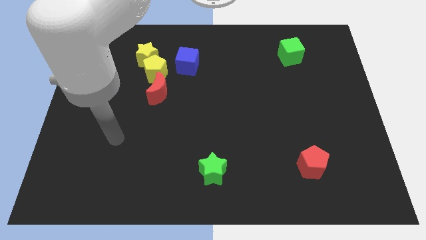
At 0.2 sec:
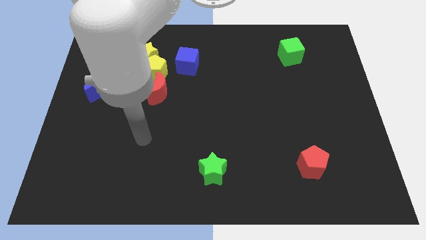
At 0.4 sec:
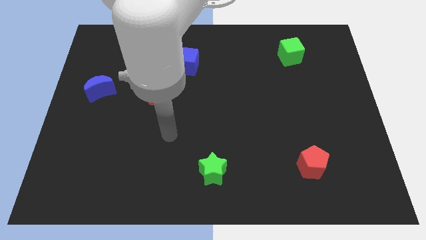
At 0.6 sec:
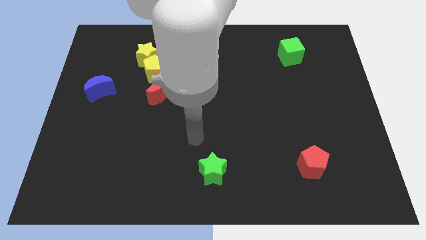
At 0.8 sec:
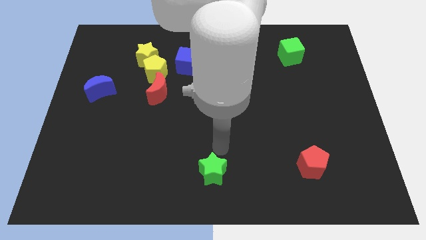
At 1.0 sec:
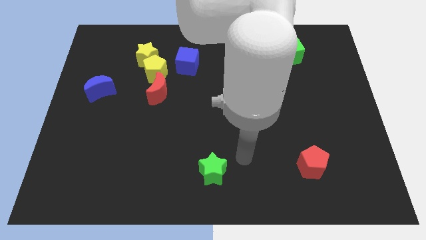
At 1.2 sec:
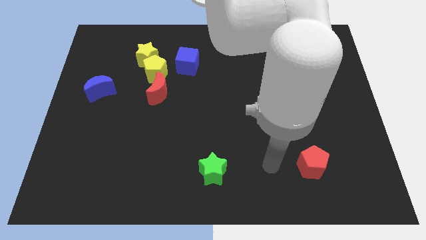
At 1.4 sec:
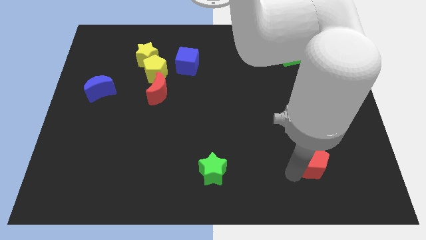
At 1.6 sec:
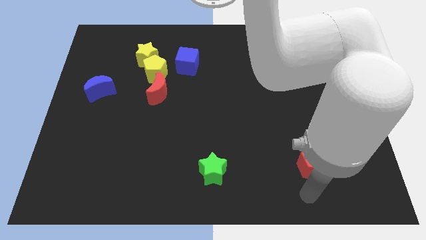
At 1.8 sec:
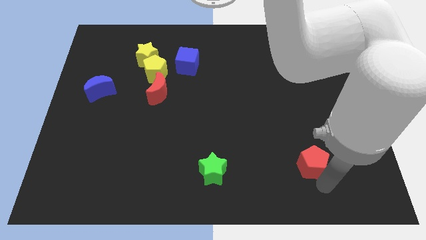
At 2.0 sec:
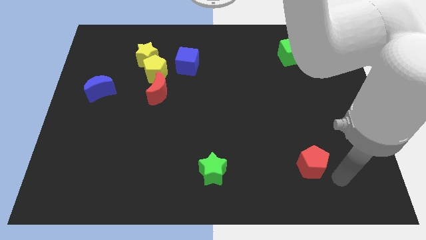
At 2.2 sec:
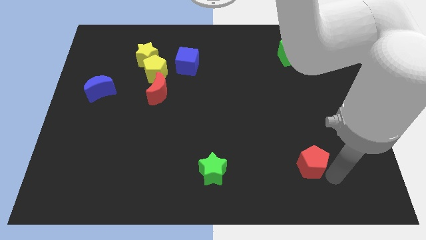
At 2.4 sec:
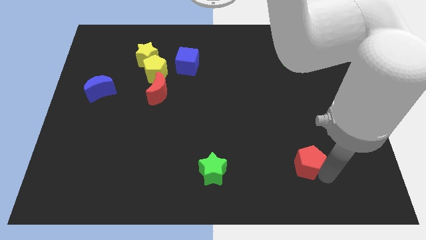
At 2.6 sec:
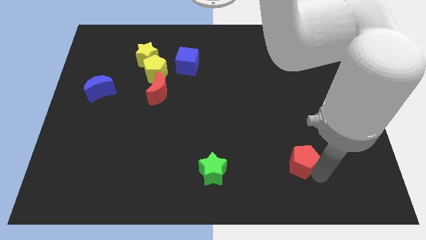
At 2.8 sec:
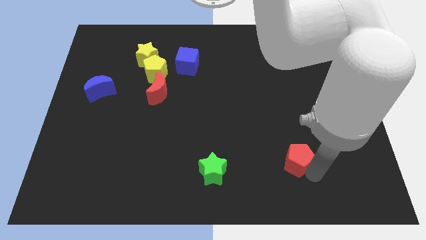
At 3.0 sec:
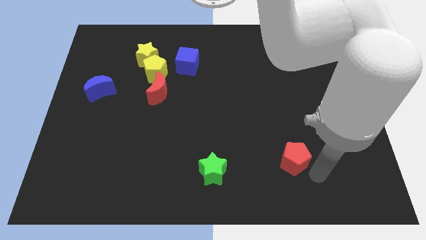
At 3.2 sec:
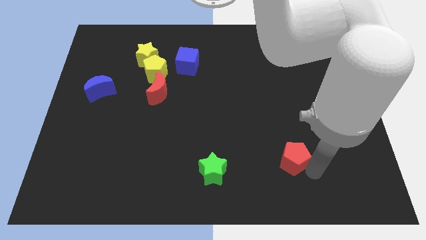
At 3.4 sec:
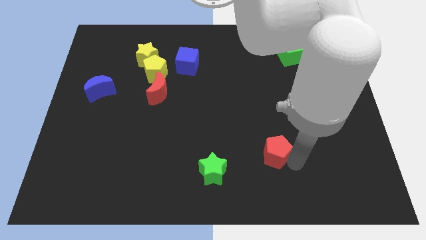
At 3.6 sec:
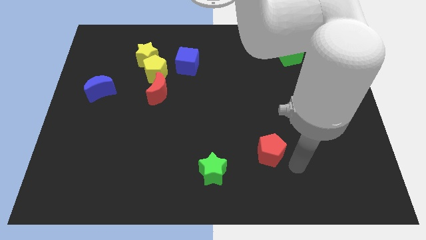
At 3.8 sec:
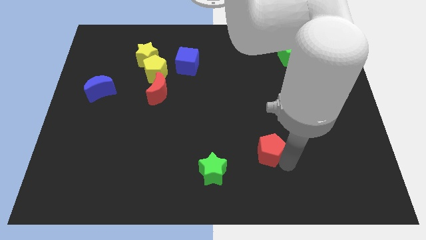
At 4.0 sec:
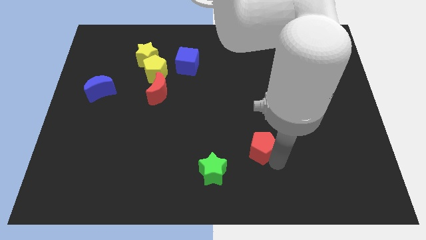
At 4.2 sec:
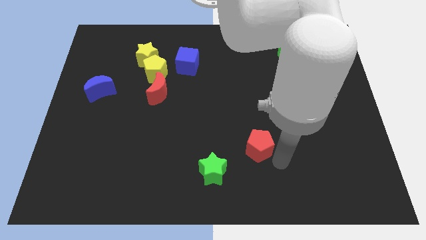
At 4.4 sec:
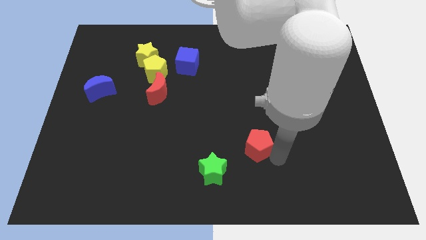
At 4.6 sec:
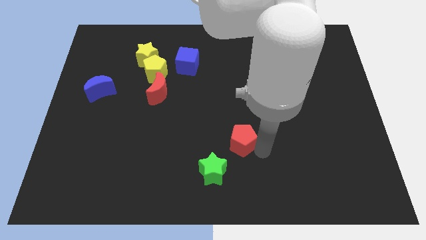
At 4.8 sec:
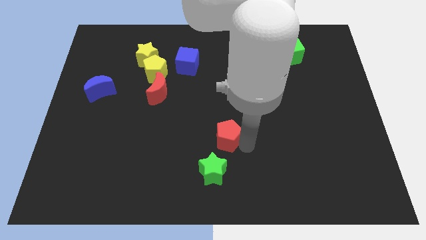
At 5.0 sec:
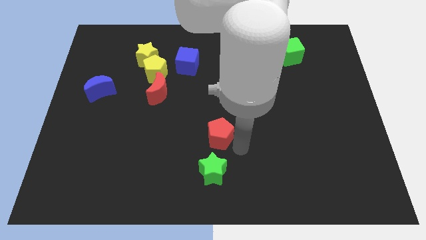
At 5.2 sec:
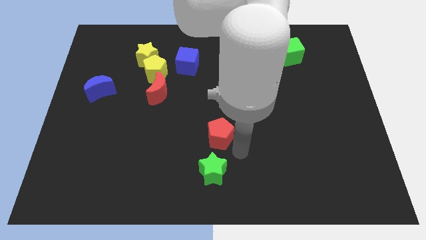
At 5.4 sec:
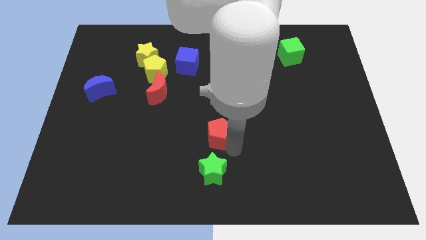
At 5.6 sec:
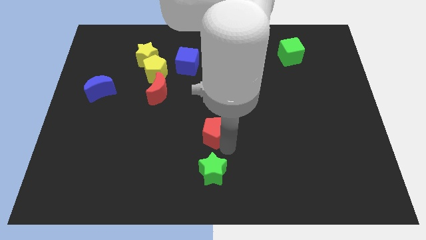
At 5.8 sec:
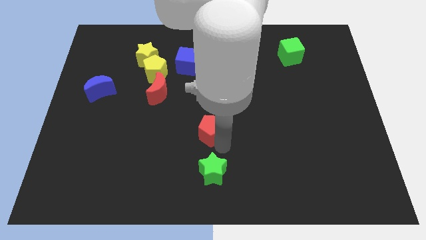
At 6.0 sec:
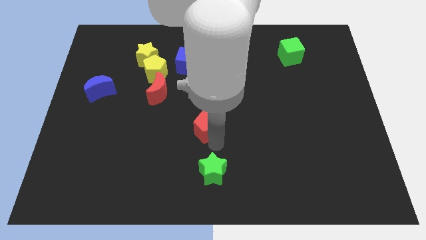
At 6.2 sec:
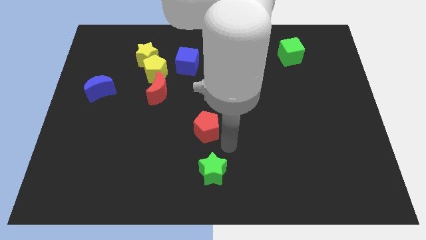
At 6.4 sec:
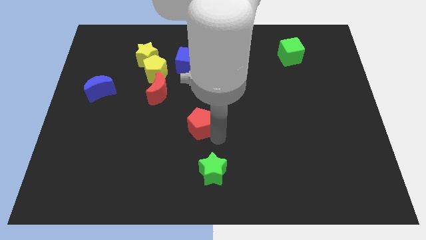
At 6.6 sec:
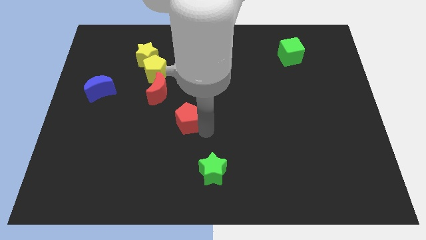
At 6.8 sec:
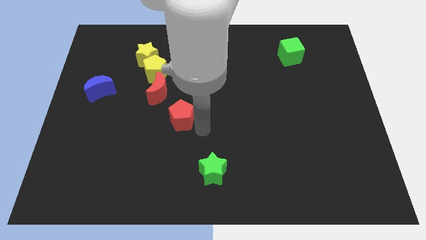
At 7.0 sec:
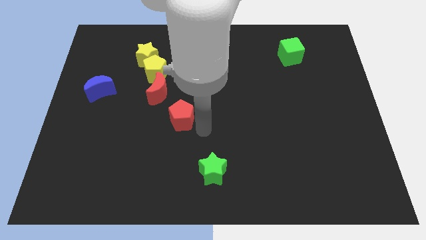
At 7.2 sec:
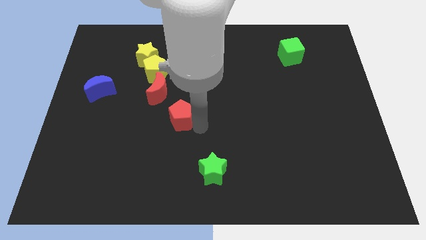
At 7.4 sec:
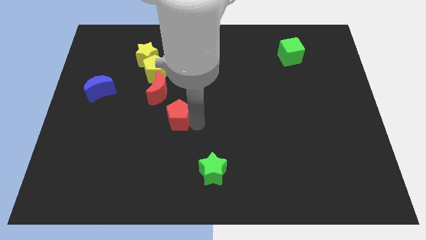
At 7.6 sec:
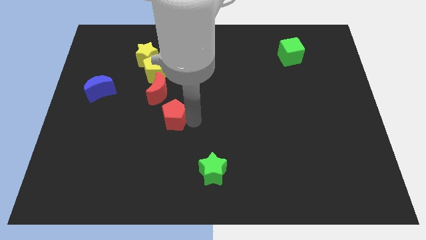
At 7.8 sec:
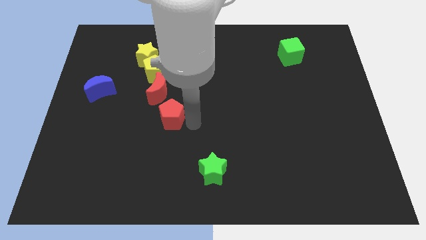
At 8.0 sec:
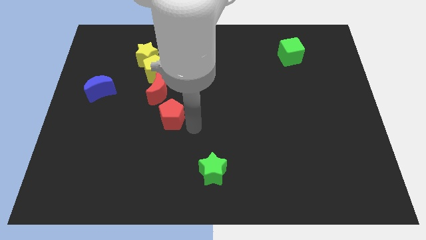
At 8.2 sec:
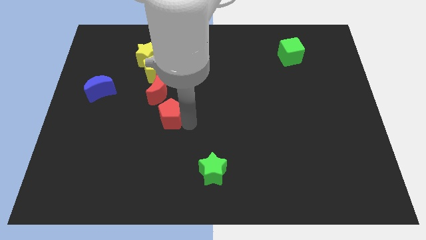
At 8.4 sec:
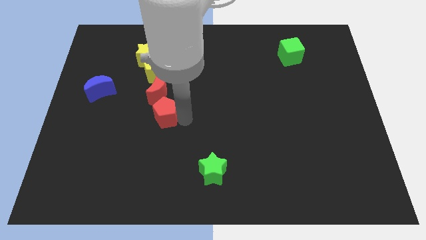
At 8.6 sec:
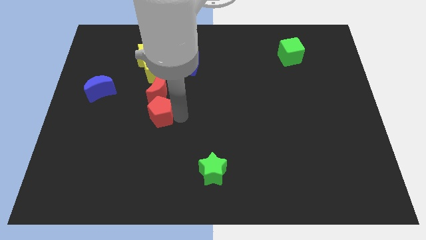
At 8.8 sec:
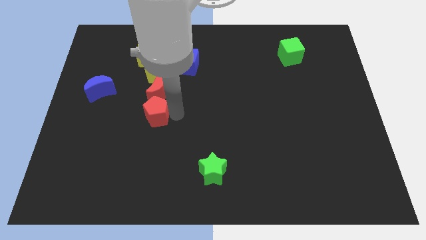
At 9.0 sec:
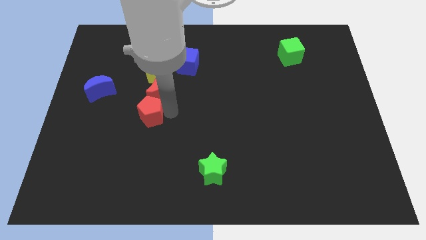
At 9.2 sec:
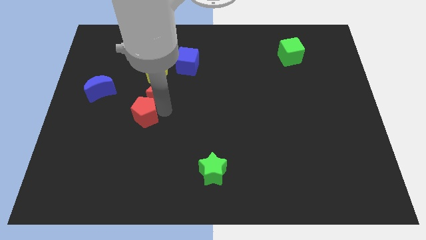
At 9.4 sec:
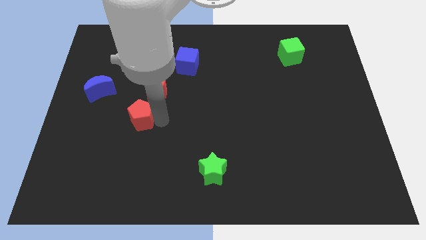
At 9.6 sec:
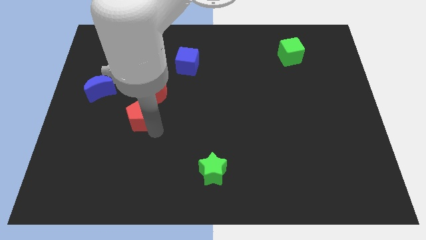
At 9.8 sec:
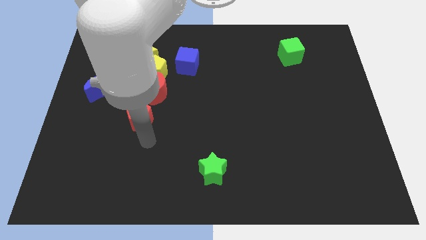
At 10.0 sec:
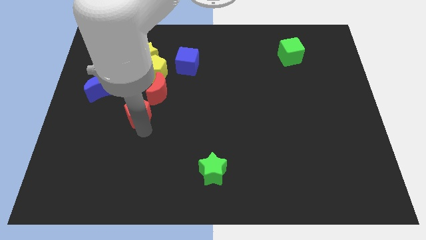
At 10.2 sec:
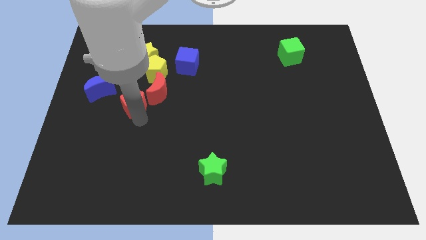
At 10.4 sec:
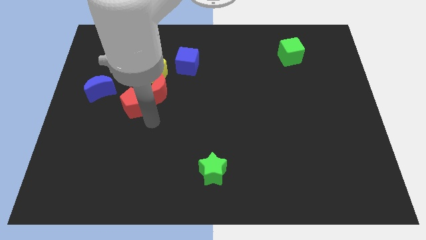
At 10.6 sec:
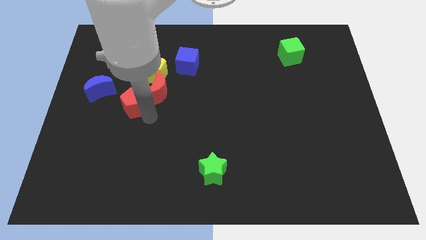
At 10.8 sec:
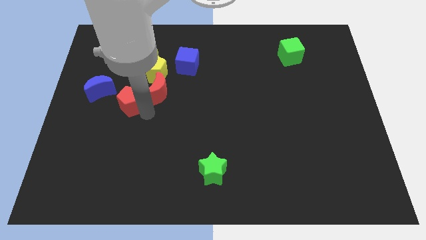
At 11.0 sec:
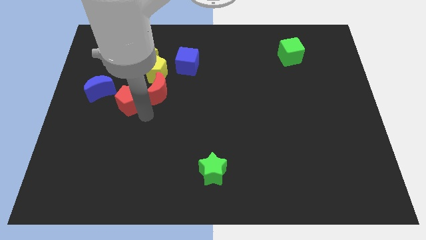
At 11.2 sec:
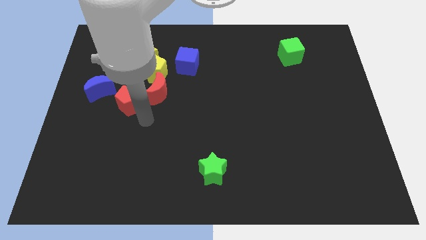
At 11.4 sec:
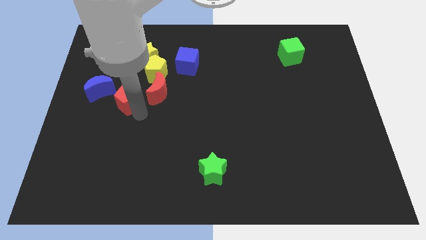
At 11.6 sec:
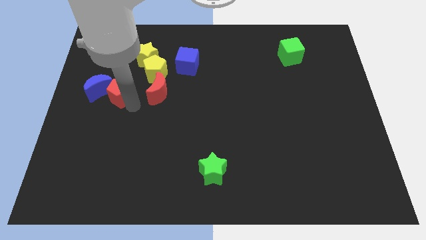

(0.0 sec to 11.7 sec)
put the red pentagon towards the blue moon

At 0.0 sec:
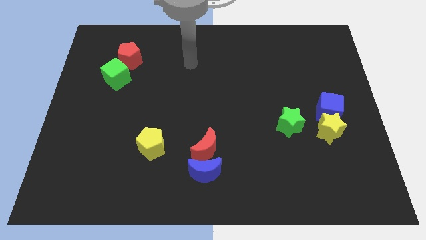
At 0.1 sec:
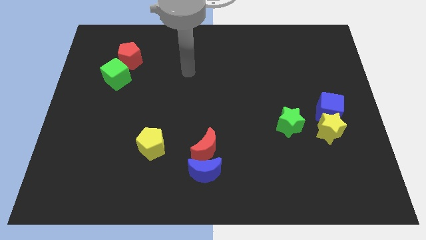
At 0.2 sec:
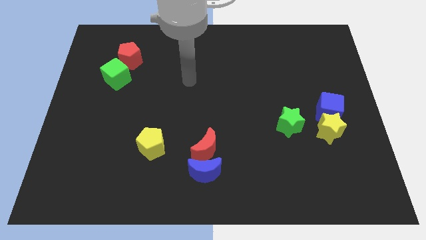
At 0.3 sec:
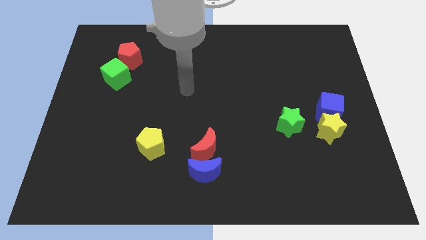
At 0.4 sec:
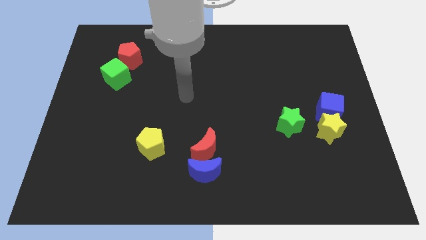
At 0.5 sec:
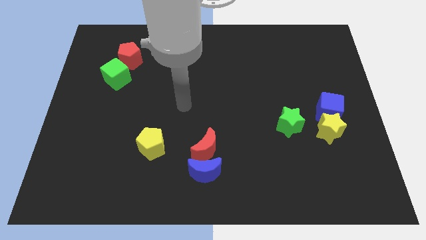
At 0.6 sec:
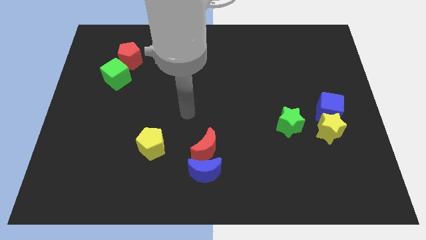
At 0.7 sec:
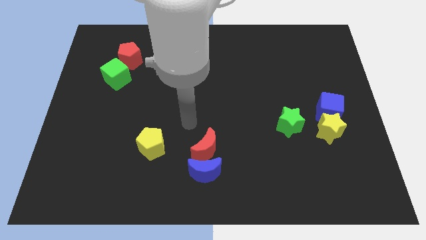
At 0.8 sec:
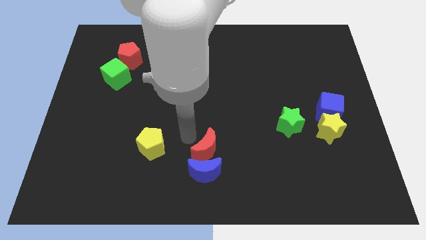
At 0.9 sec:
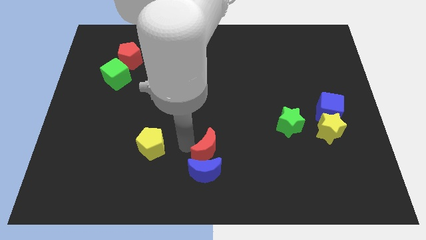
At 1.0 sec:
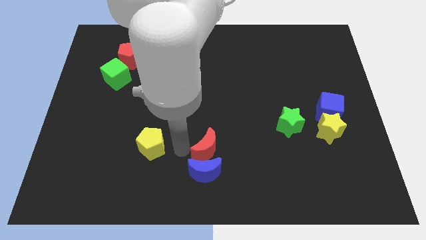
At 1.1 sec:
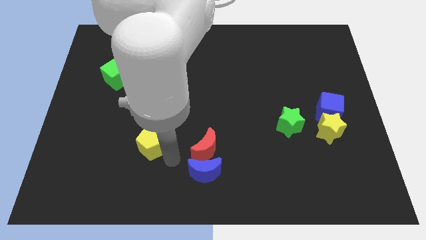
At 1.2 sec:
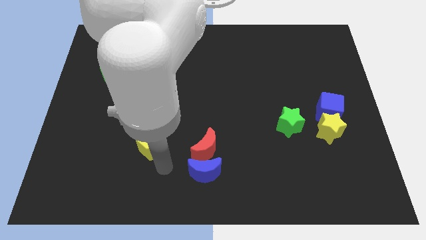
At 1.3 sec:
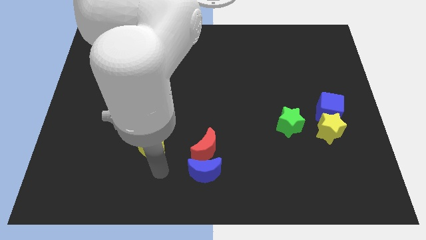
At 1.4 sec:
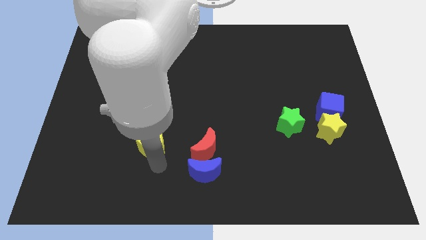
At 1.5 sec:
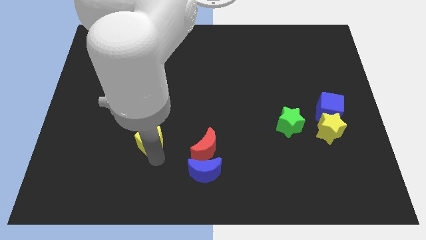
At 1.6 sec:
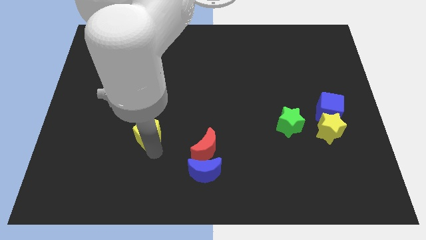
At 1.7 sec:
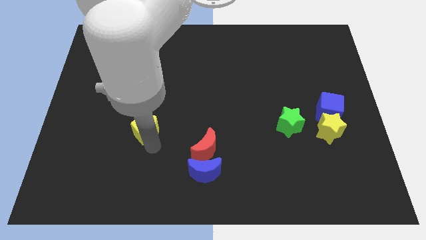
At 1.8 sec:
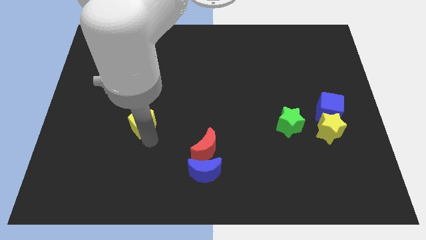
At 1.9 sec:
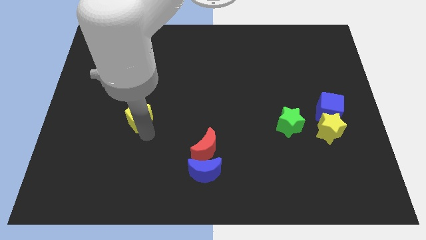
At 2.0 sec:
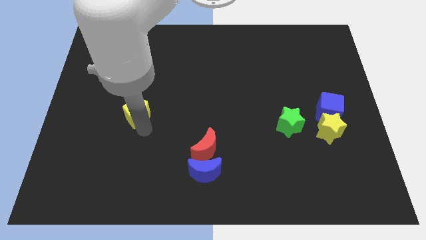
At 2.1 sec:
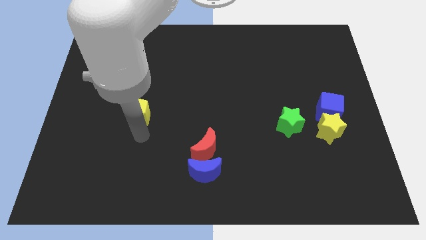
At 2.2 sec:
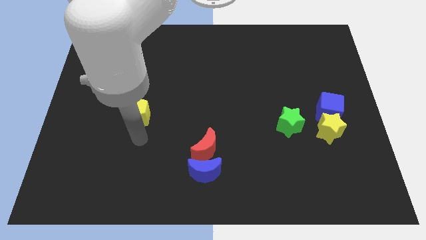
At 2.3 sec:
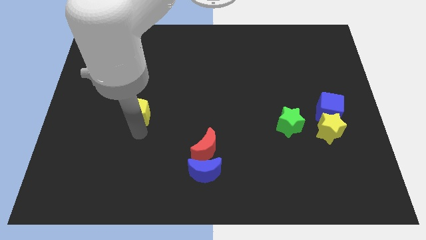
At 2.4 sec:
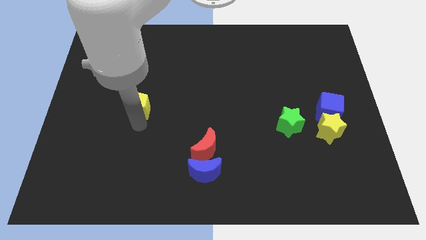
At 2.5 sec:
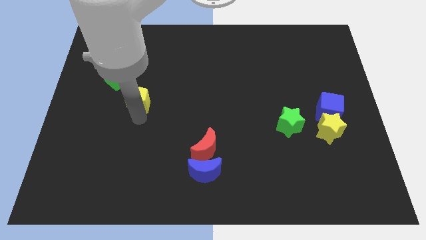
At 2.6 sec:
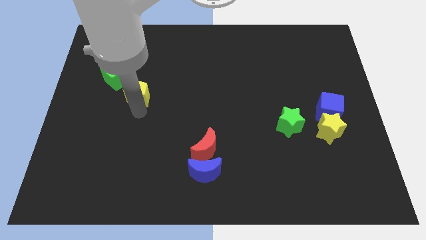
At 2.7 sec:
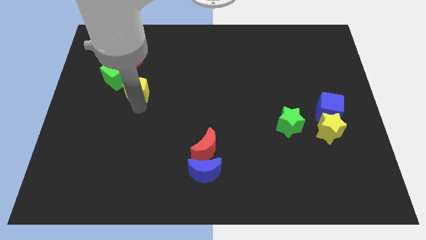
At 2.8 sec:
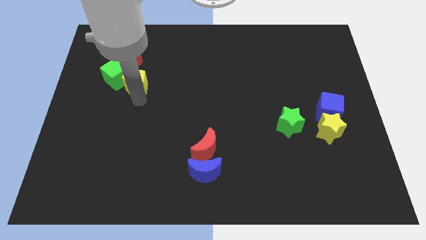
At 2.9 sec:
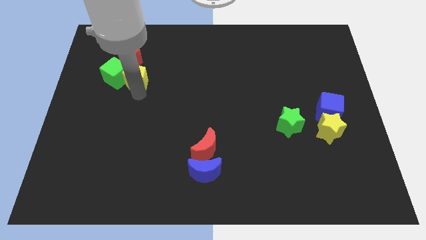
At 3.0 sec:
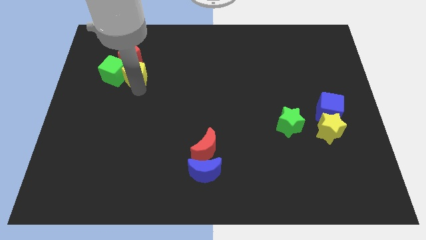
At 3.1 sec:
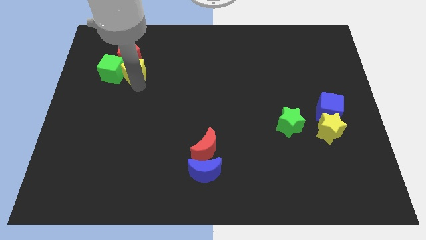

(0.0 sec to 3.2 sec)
push the yellow pentagon next to the red pentagon
